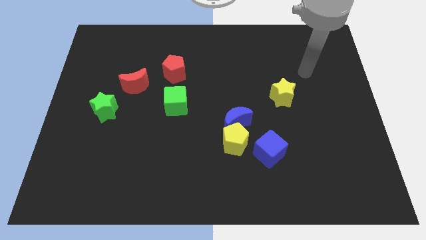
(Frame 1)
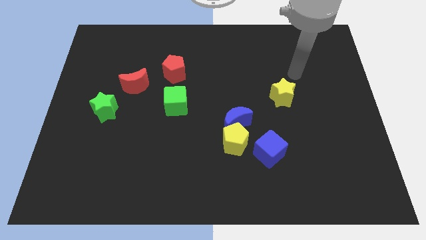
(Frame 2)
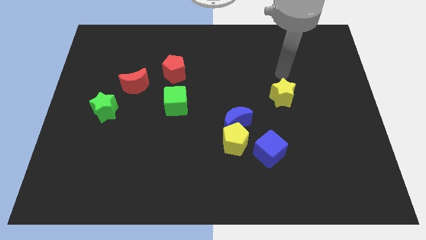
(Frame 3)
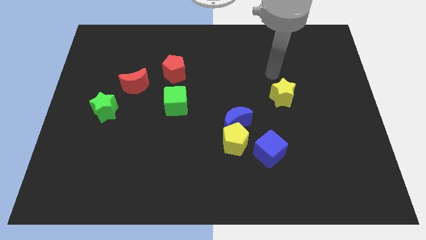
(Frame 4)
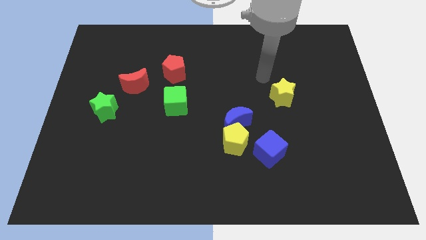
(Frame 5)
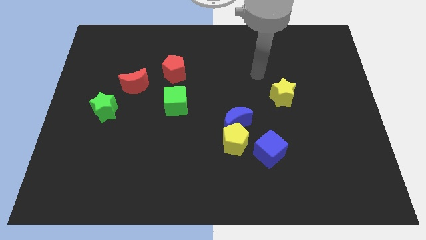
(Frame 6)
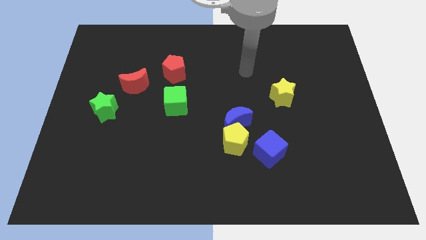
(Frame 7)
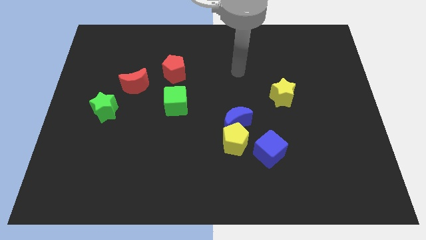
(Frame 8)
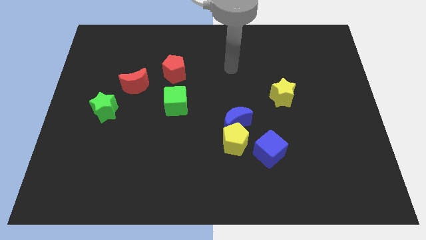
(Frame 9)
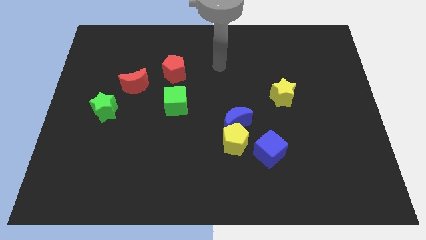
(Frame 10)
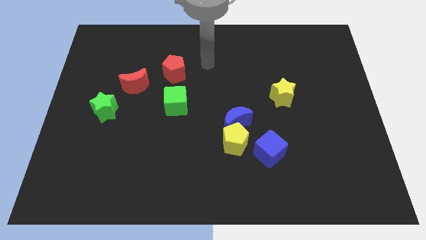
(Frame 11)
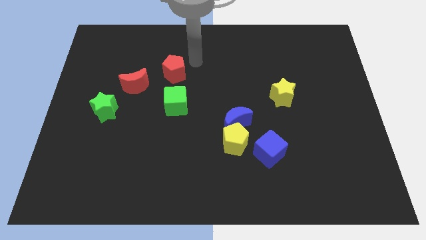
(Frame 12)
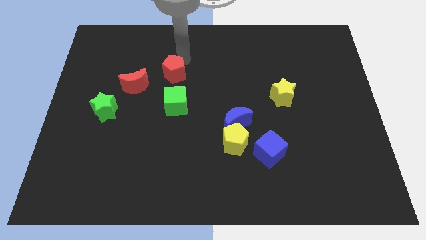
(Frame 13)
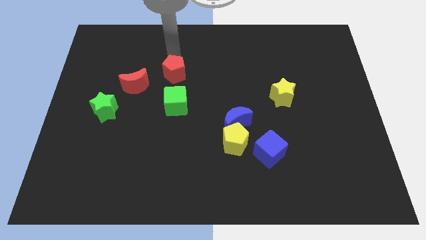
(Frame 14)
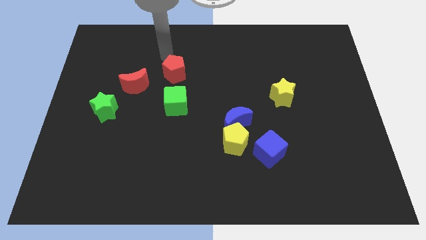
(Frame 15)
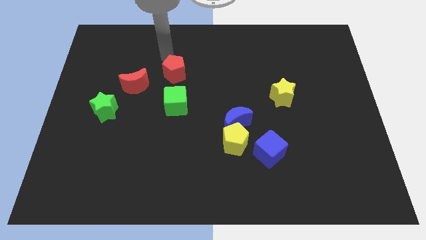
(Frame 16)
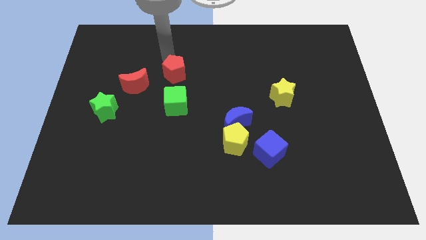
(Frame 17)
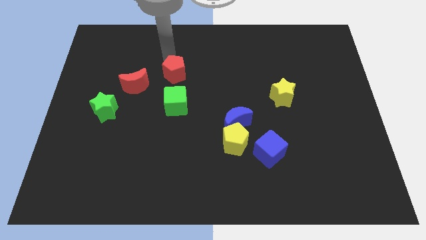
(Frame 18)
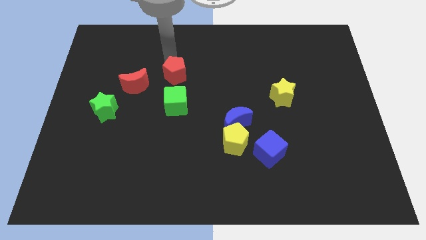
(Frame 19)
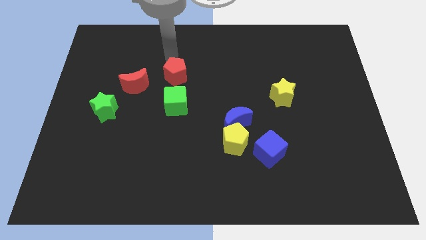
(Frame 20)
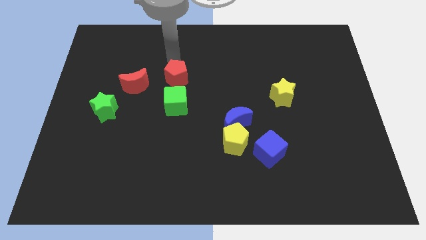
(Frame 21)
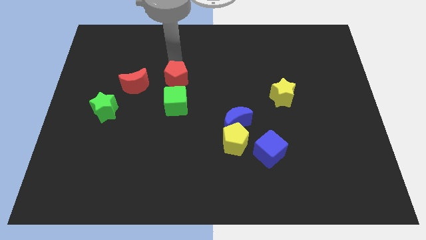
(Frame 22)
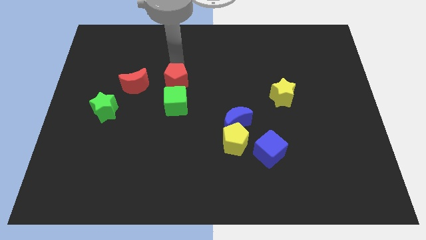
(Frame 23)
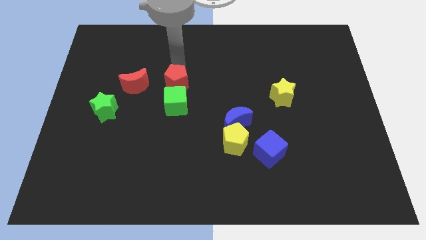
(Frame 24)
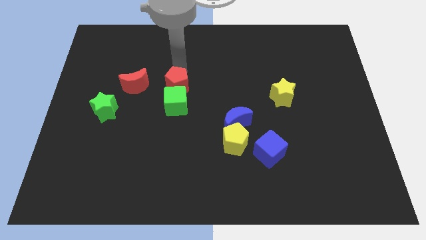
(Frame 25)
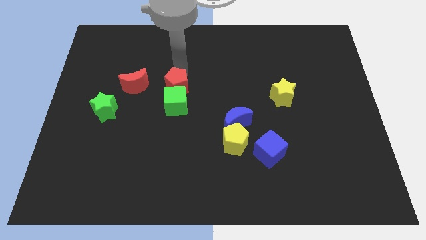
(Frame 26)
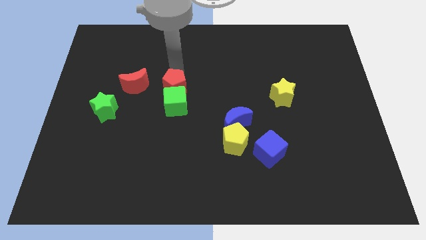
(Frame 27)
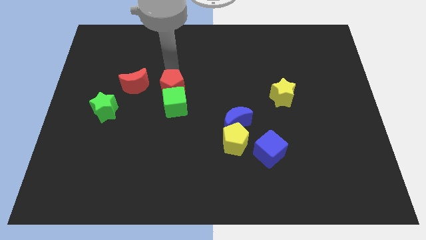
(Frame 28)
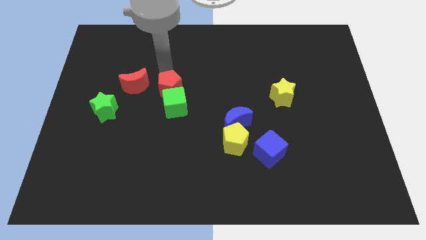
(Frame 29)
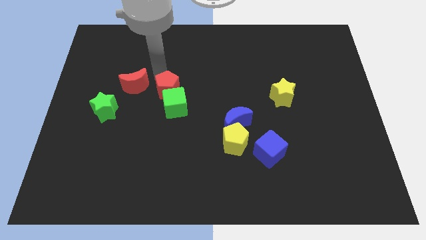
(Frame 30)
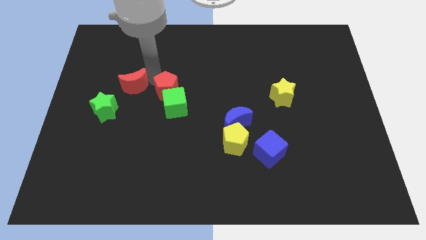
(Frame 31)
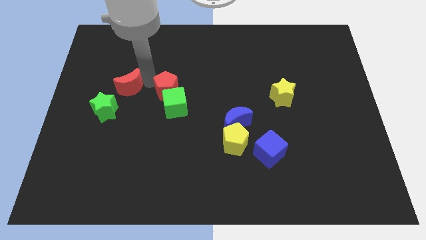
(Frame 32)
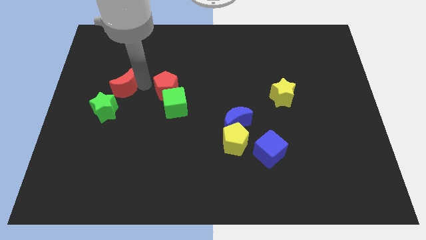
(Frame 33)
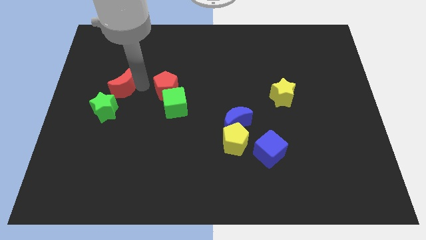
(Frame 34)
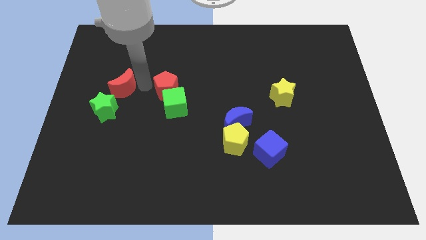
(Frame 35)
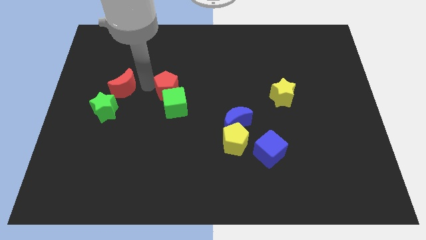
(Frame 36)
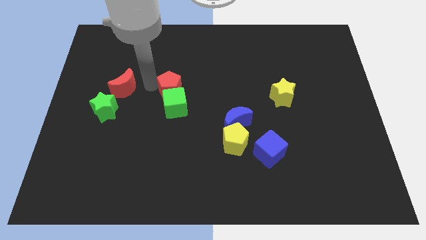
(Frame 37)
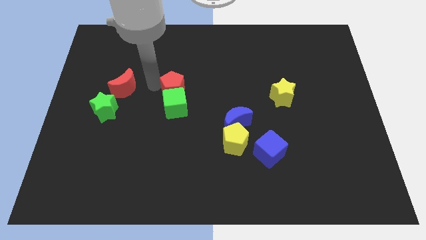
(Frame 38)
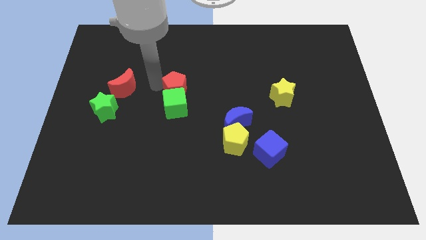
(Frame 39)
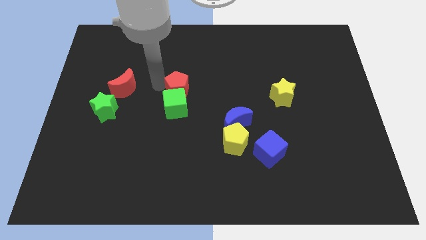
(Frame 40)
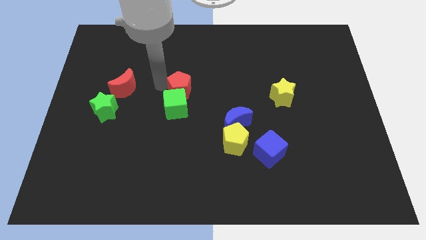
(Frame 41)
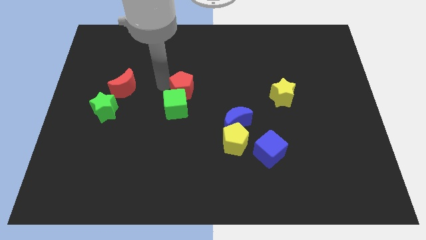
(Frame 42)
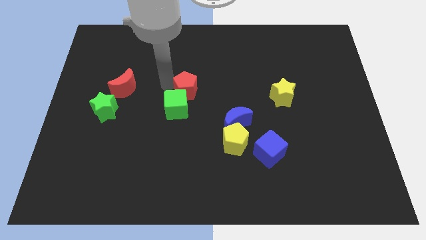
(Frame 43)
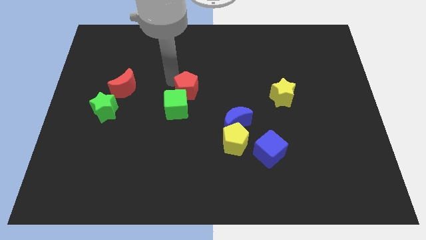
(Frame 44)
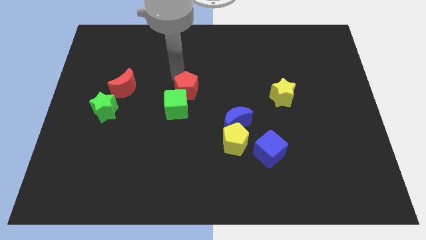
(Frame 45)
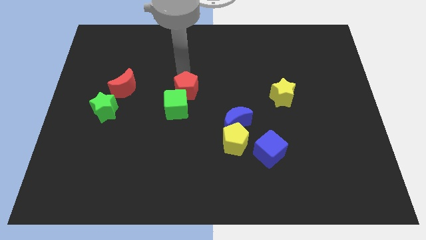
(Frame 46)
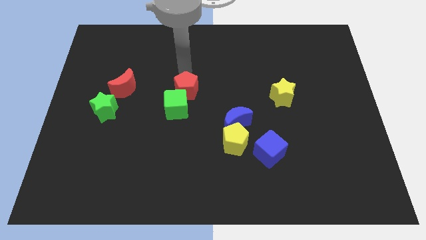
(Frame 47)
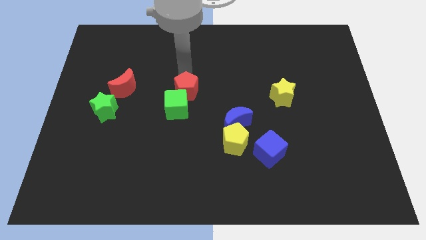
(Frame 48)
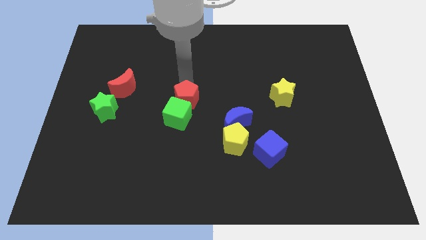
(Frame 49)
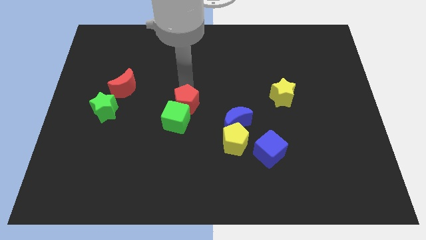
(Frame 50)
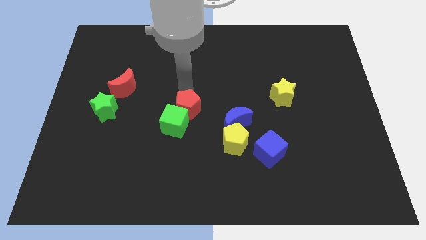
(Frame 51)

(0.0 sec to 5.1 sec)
slide the red pentagon to the left of the blue moon

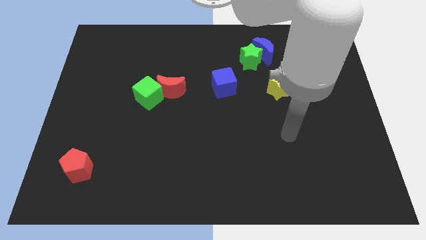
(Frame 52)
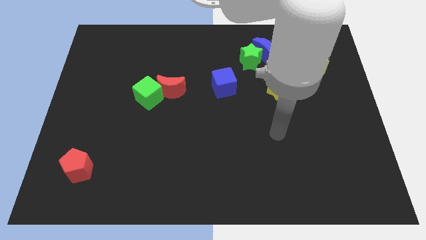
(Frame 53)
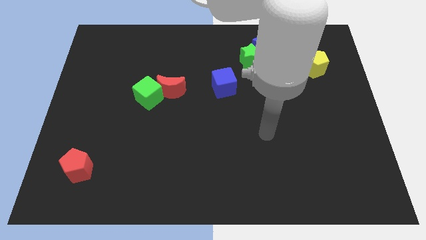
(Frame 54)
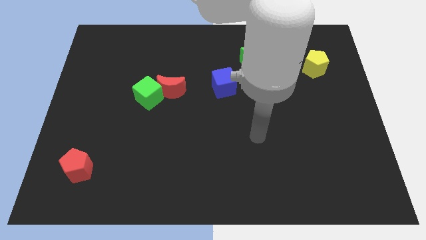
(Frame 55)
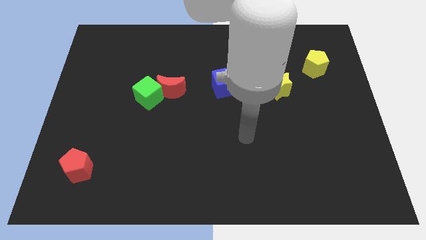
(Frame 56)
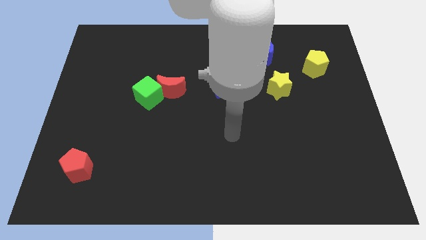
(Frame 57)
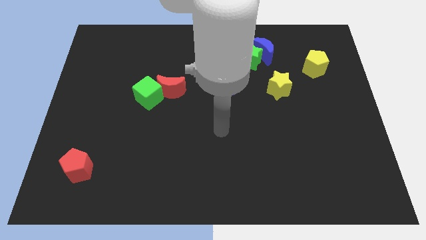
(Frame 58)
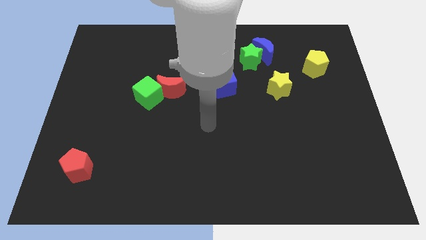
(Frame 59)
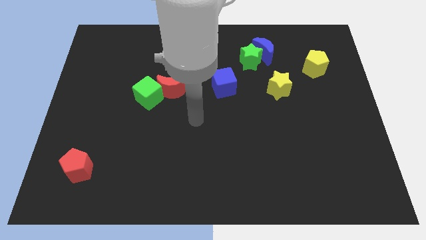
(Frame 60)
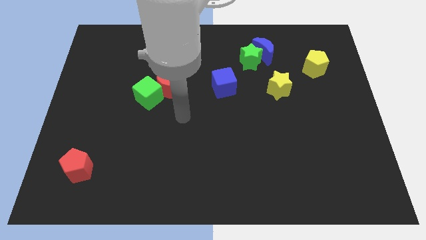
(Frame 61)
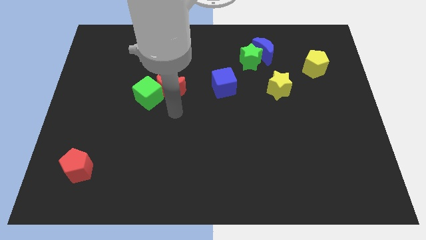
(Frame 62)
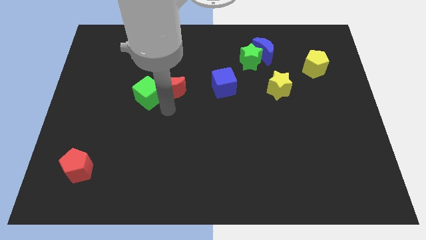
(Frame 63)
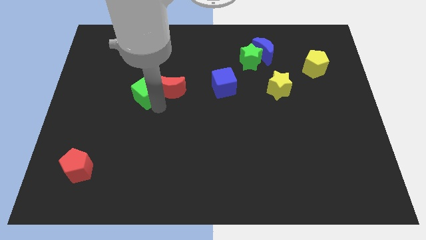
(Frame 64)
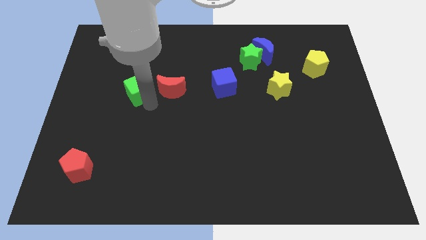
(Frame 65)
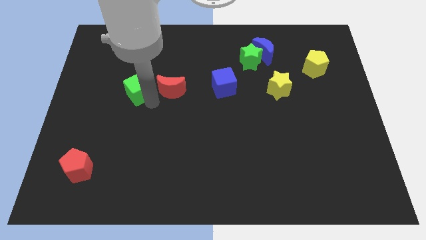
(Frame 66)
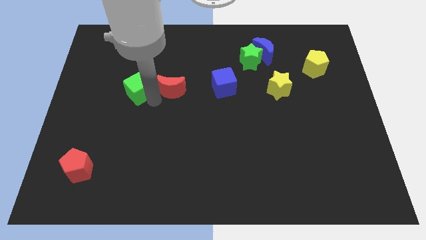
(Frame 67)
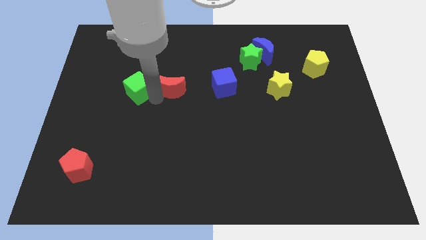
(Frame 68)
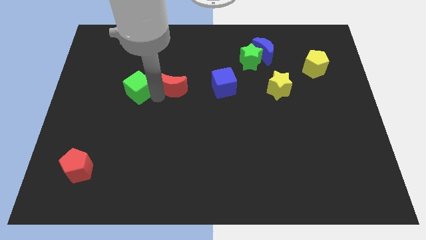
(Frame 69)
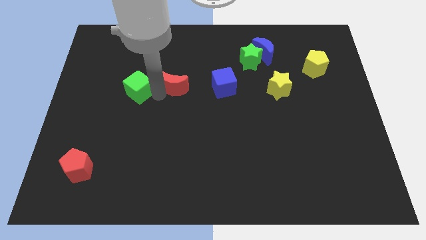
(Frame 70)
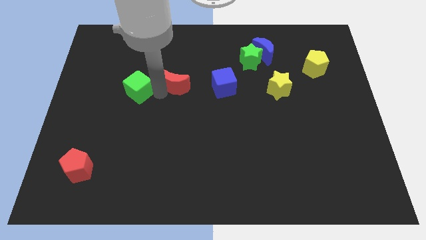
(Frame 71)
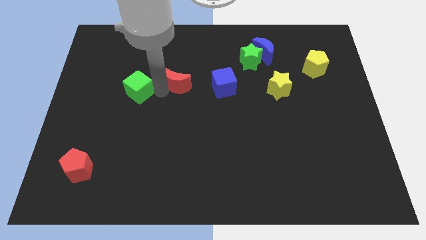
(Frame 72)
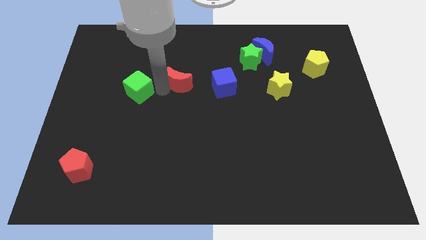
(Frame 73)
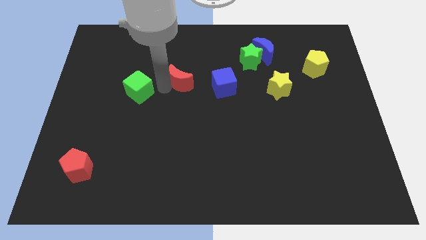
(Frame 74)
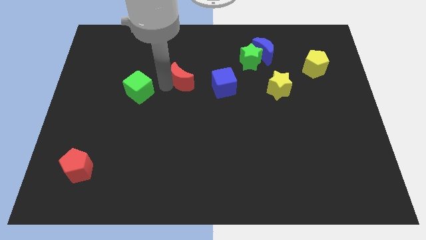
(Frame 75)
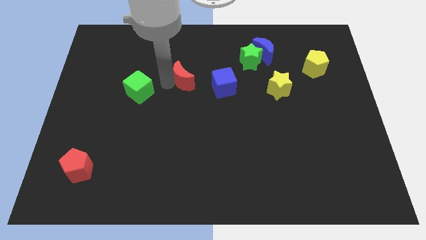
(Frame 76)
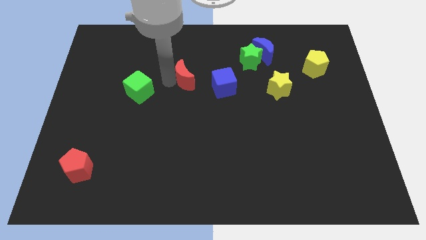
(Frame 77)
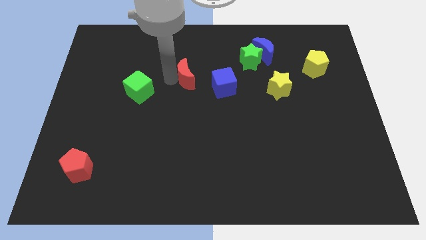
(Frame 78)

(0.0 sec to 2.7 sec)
put the red moon to the top left side of the blue cube
